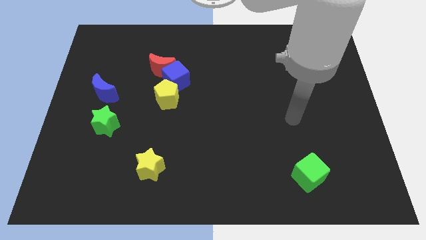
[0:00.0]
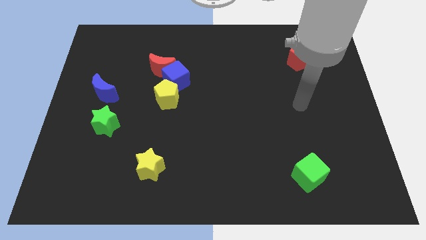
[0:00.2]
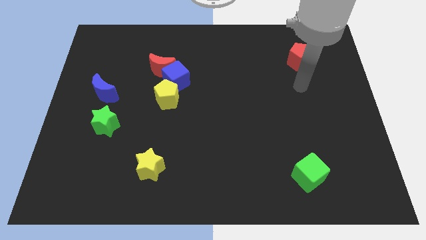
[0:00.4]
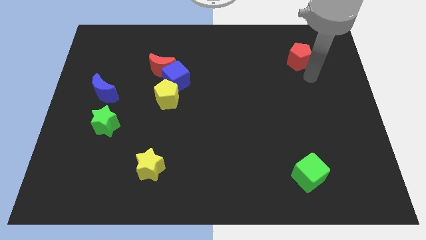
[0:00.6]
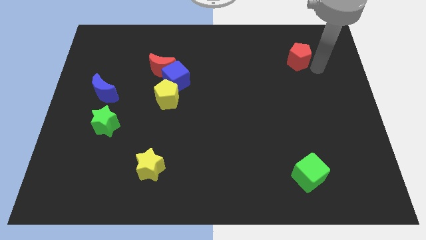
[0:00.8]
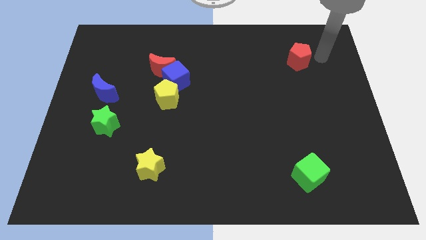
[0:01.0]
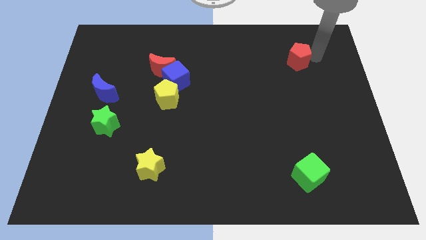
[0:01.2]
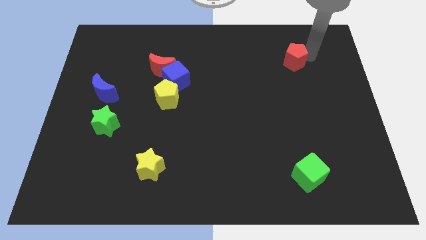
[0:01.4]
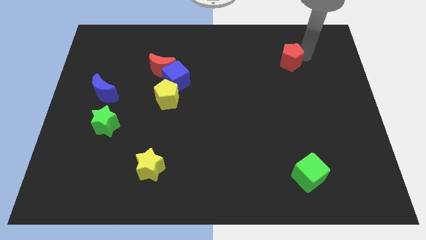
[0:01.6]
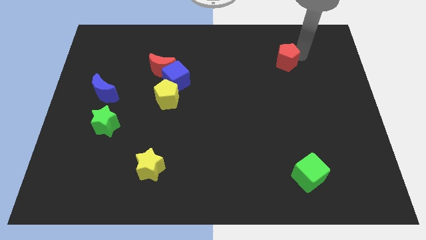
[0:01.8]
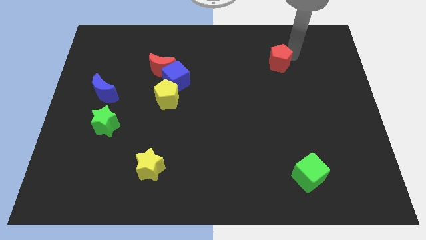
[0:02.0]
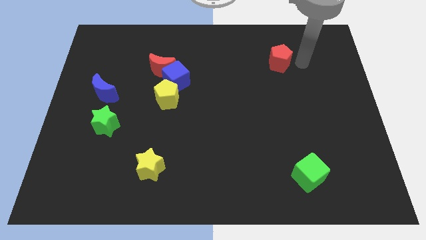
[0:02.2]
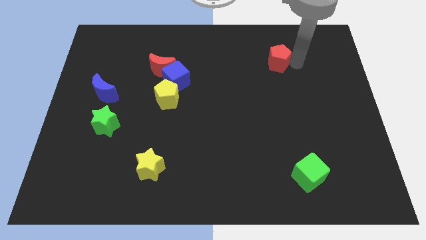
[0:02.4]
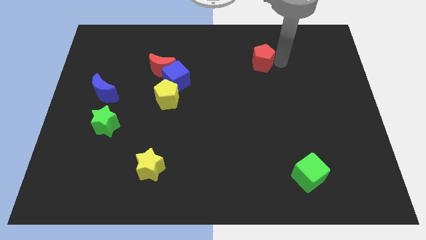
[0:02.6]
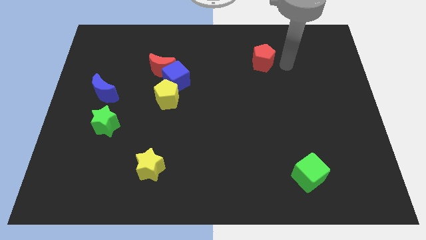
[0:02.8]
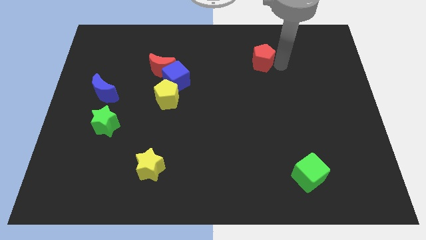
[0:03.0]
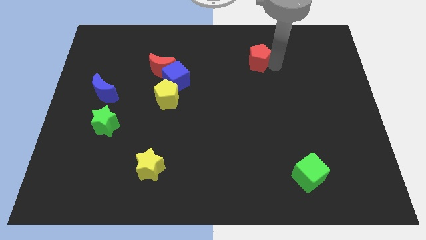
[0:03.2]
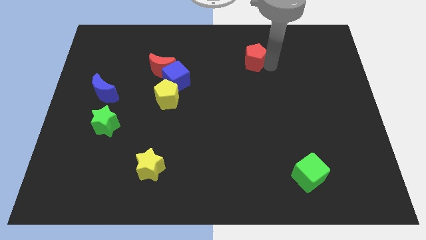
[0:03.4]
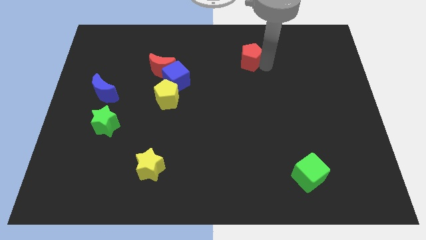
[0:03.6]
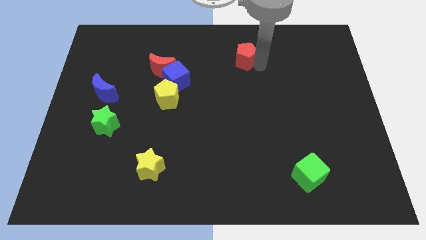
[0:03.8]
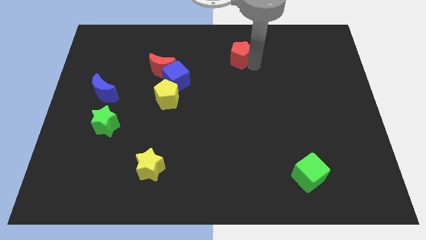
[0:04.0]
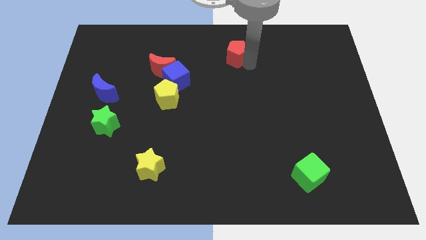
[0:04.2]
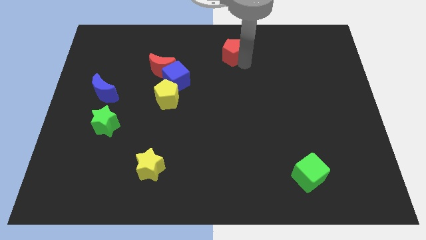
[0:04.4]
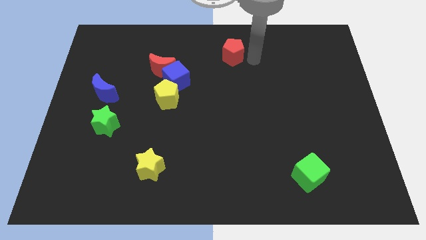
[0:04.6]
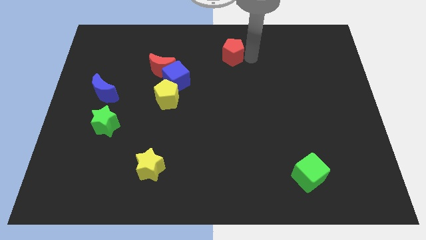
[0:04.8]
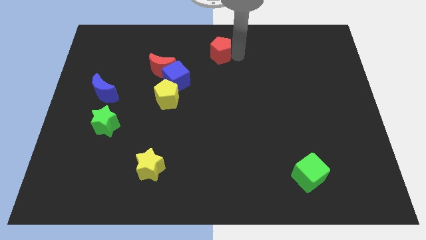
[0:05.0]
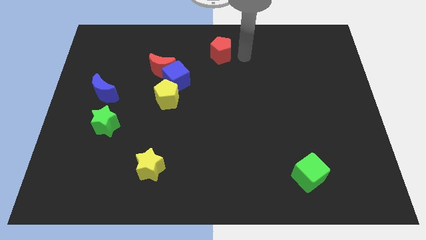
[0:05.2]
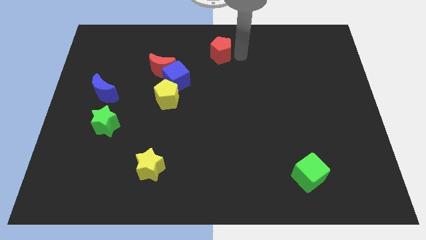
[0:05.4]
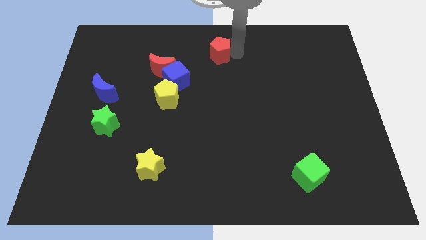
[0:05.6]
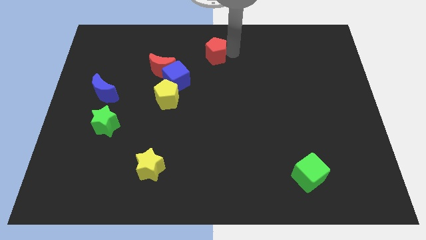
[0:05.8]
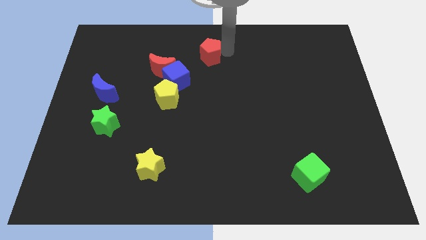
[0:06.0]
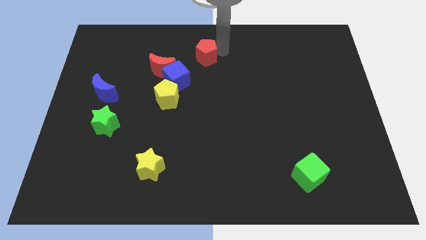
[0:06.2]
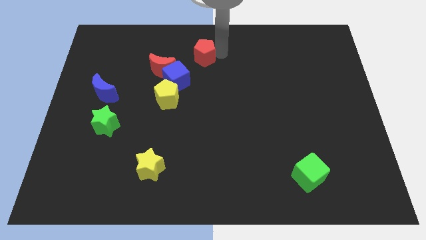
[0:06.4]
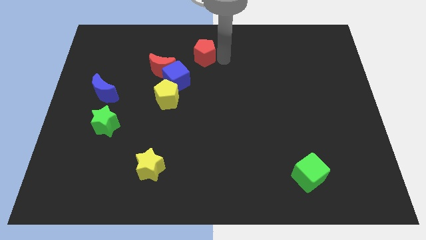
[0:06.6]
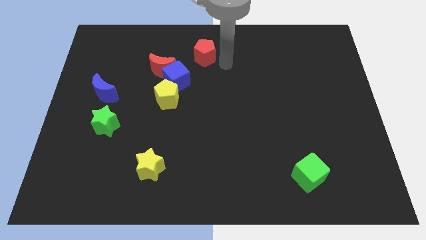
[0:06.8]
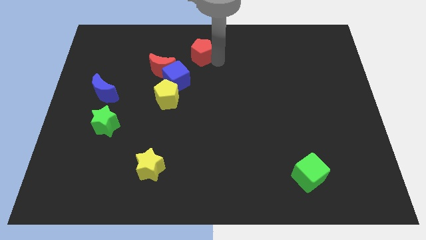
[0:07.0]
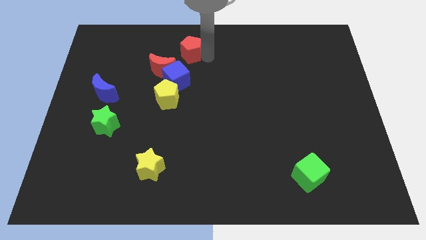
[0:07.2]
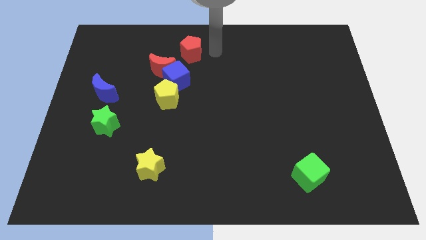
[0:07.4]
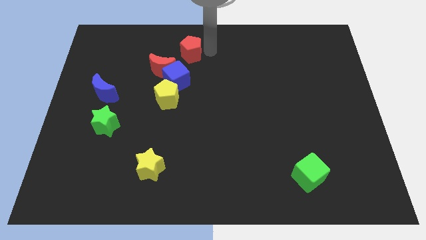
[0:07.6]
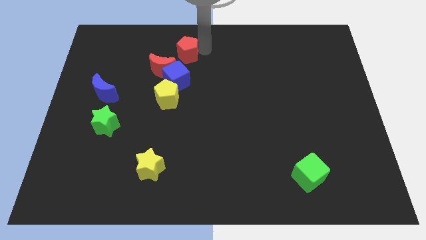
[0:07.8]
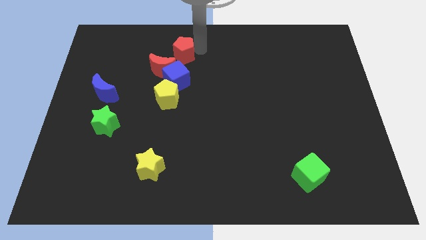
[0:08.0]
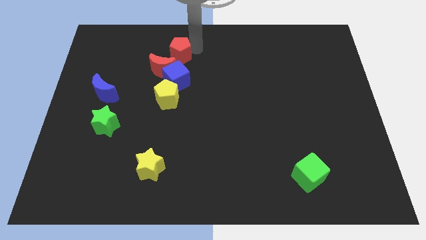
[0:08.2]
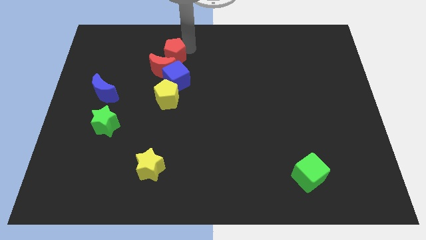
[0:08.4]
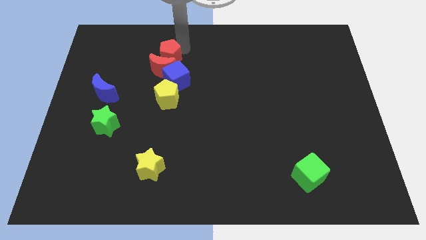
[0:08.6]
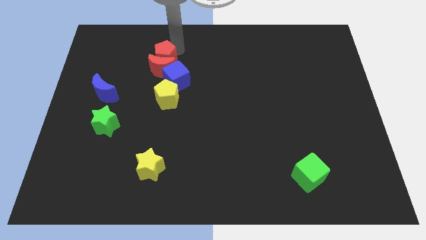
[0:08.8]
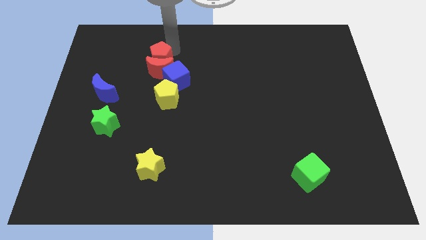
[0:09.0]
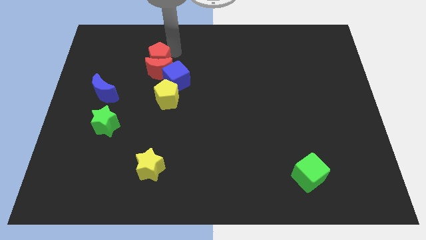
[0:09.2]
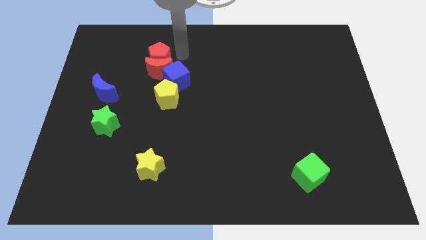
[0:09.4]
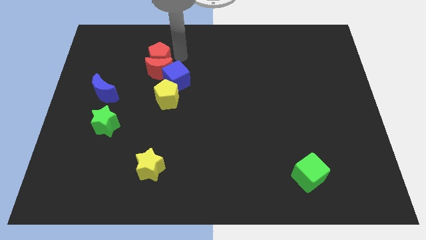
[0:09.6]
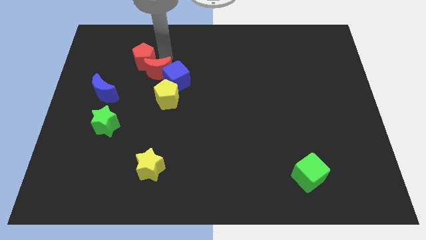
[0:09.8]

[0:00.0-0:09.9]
move the red pentagon to the left side of the red moon

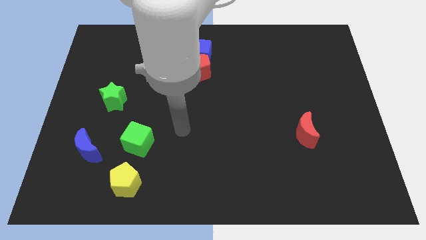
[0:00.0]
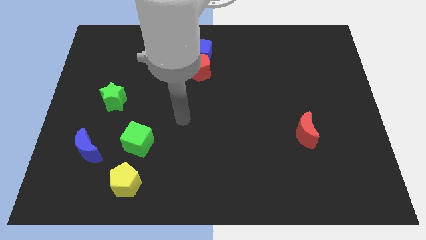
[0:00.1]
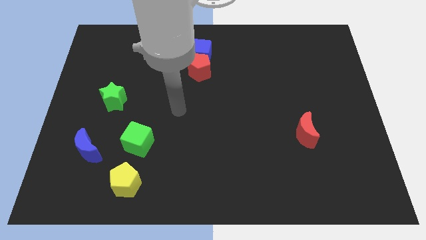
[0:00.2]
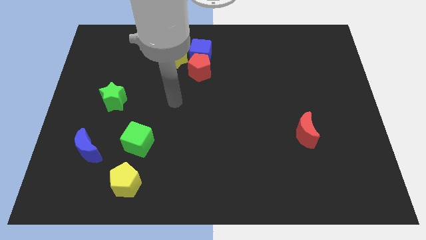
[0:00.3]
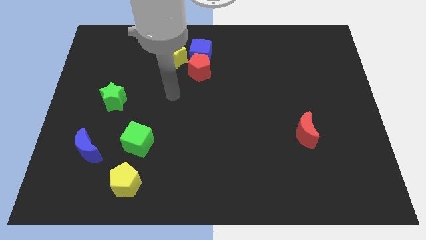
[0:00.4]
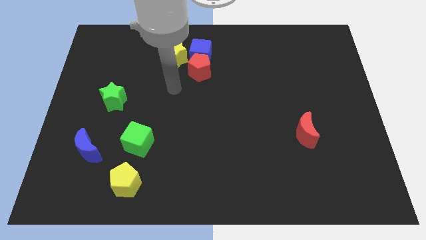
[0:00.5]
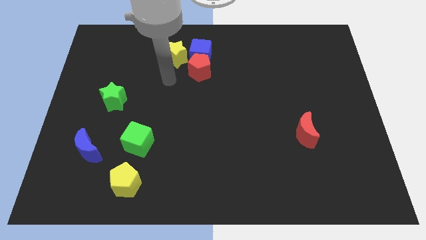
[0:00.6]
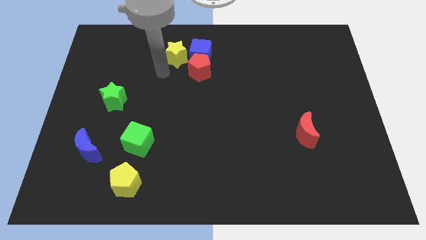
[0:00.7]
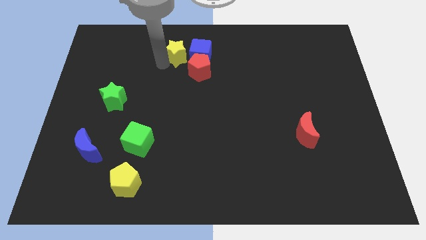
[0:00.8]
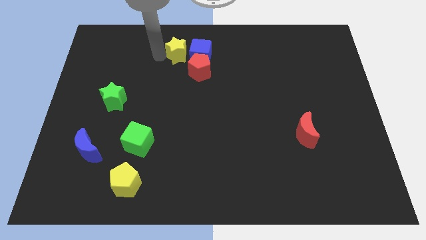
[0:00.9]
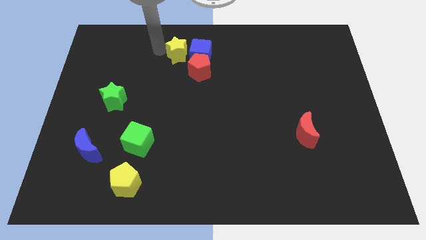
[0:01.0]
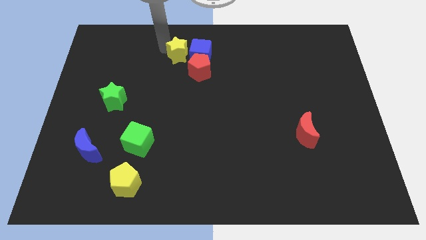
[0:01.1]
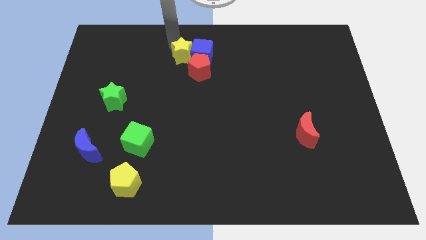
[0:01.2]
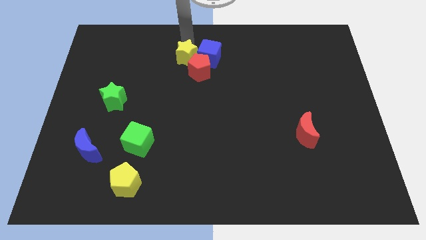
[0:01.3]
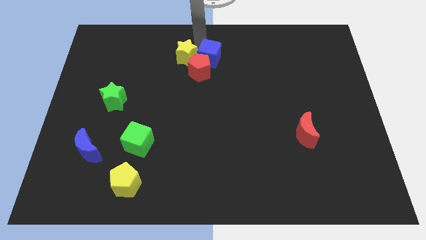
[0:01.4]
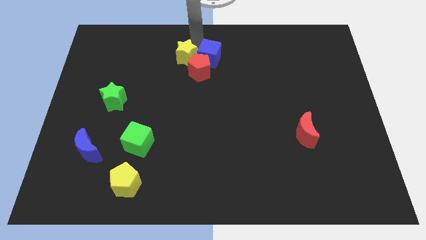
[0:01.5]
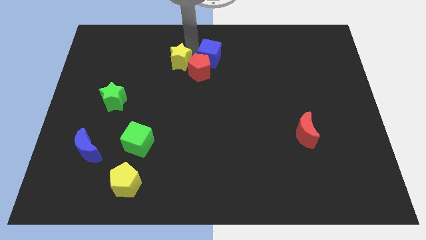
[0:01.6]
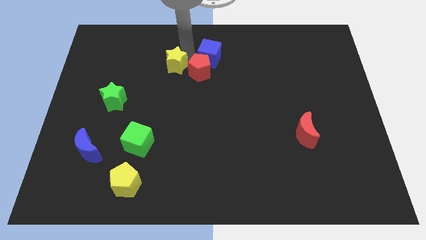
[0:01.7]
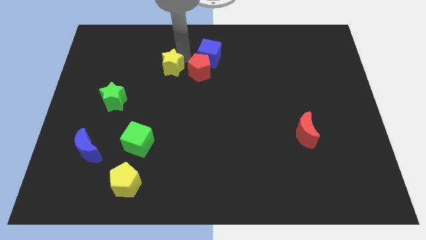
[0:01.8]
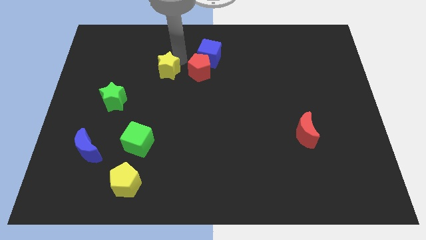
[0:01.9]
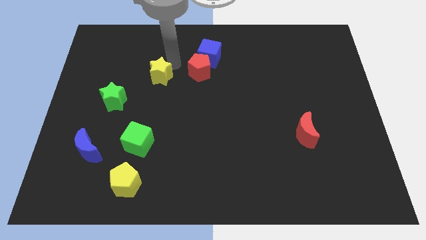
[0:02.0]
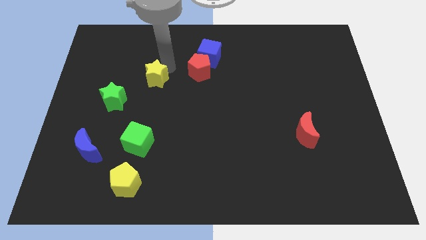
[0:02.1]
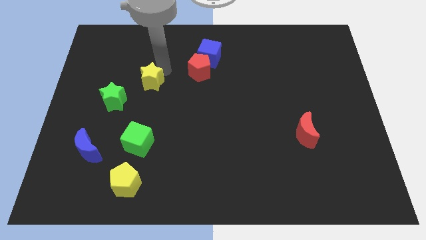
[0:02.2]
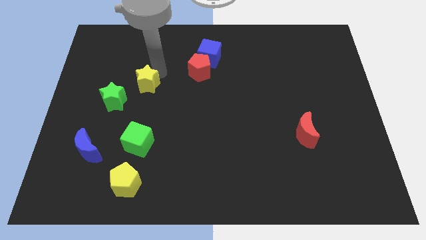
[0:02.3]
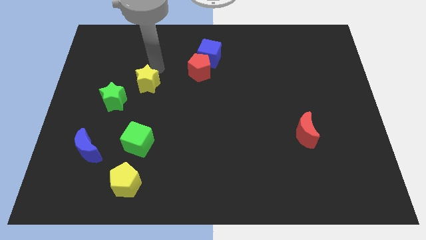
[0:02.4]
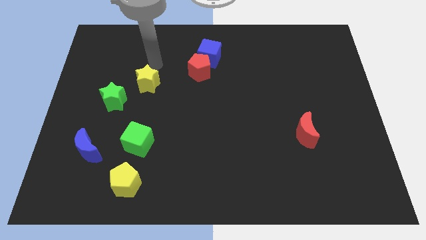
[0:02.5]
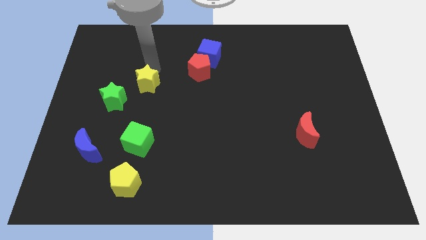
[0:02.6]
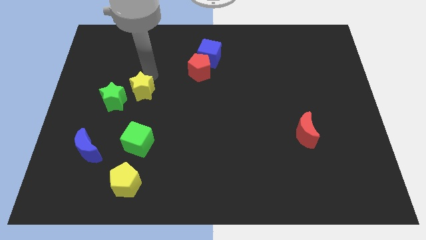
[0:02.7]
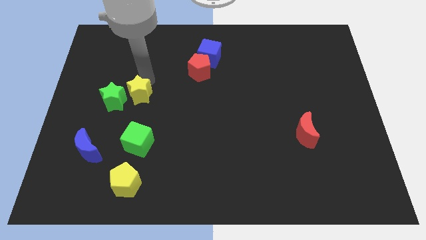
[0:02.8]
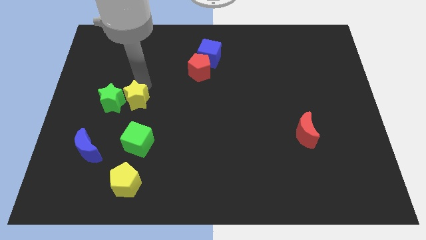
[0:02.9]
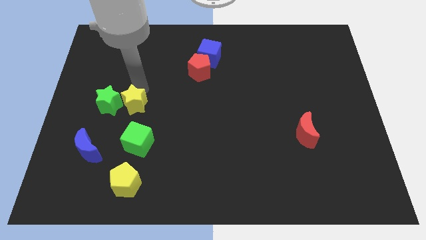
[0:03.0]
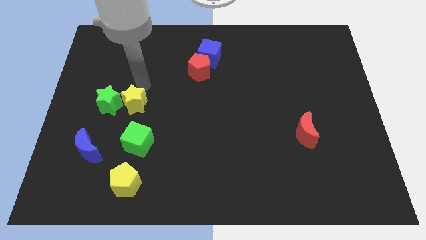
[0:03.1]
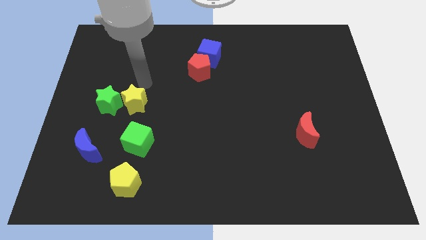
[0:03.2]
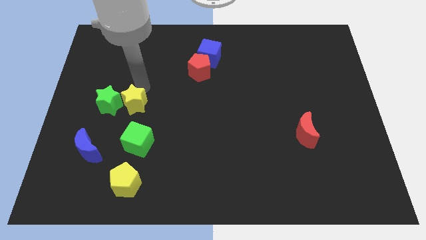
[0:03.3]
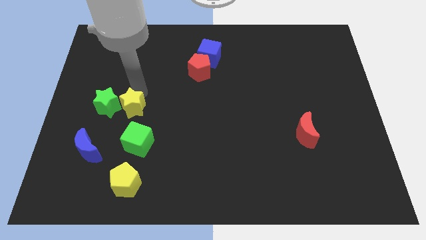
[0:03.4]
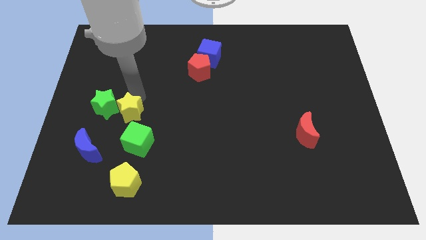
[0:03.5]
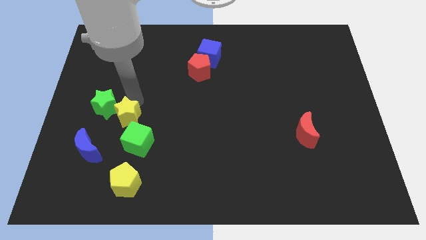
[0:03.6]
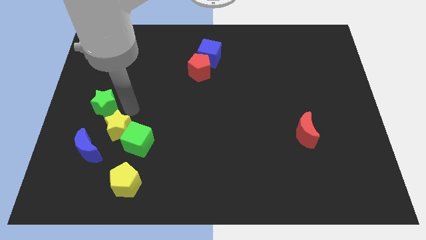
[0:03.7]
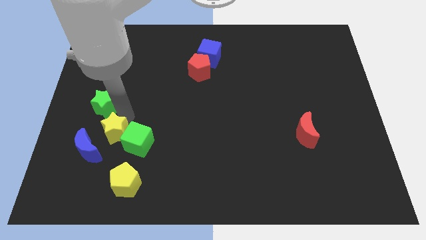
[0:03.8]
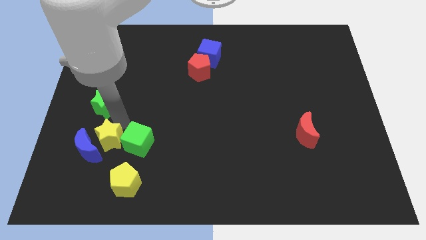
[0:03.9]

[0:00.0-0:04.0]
move the yellow star to the top left side of the yellow pentagon
